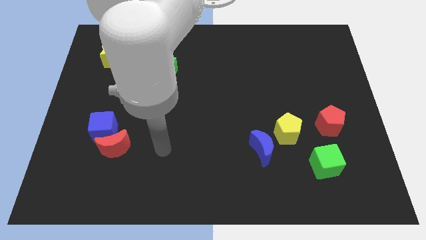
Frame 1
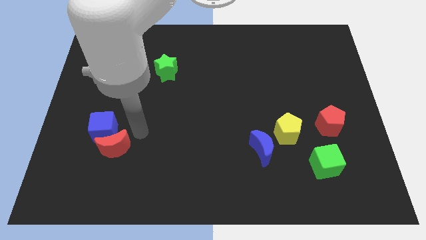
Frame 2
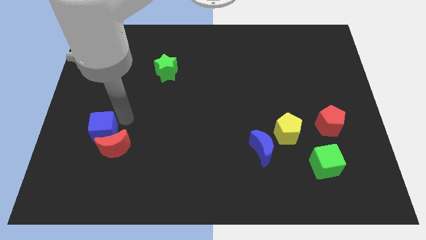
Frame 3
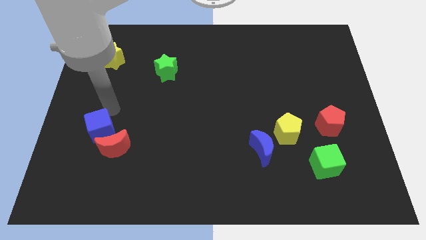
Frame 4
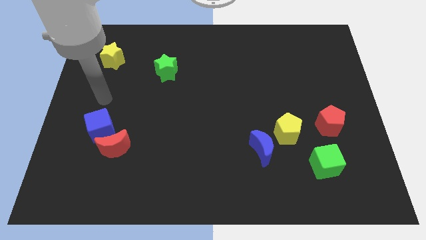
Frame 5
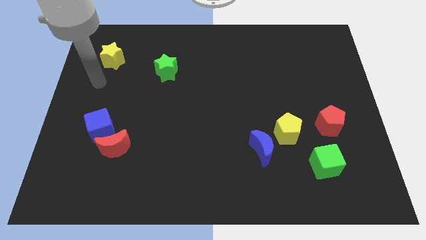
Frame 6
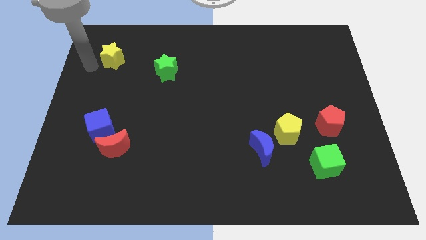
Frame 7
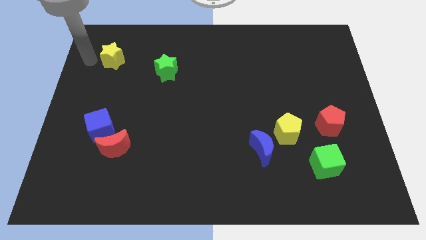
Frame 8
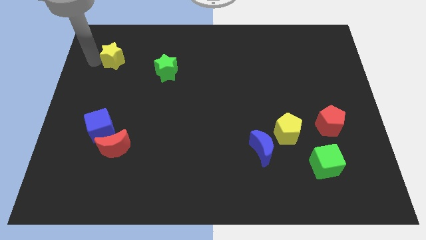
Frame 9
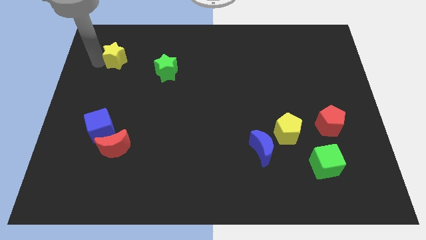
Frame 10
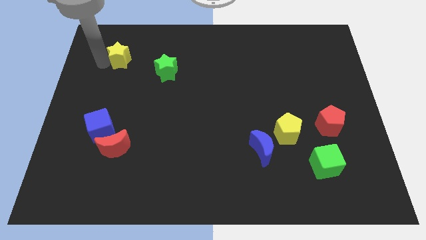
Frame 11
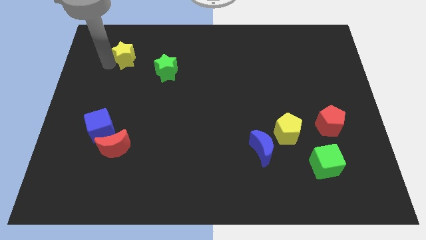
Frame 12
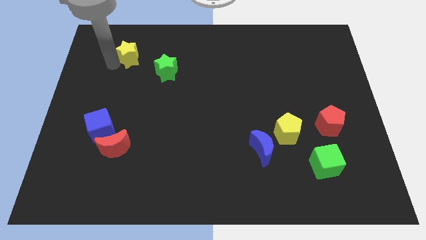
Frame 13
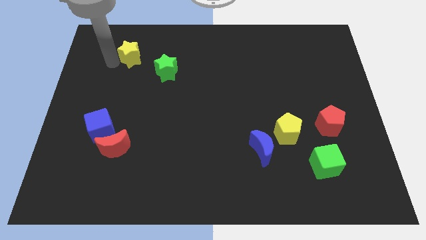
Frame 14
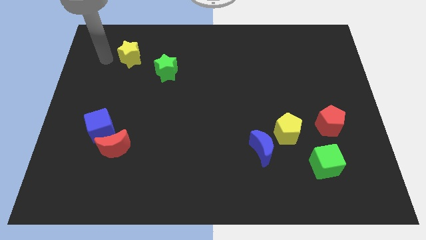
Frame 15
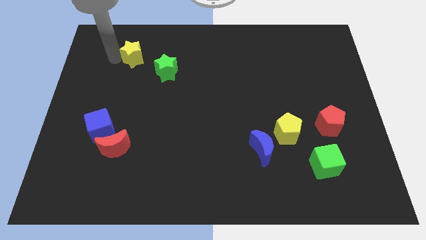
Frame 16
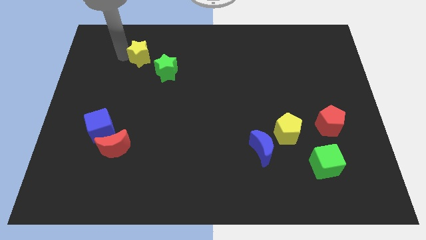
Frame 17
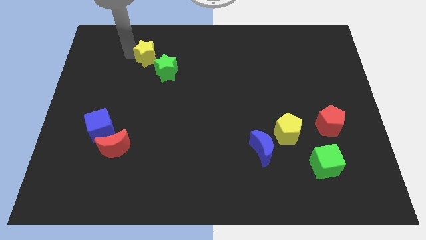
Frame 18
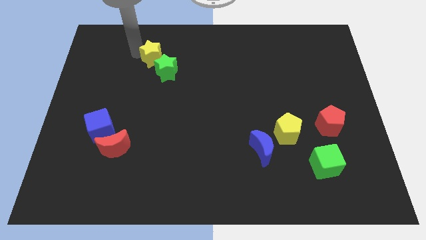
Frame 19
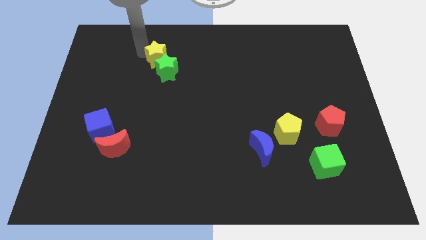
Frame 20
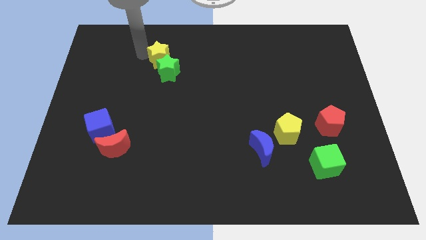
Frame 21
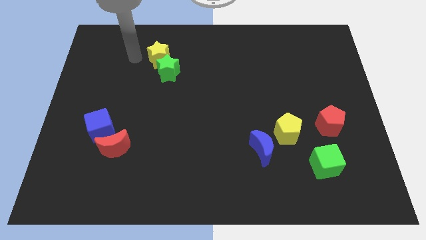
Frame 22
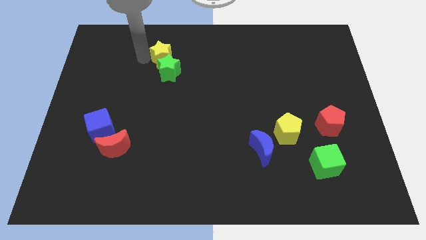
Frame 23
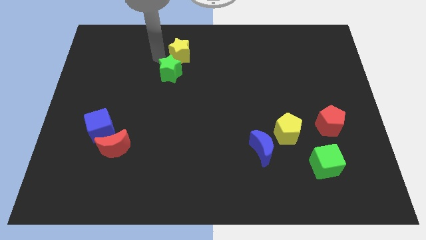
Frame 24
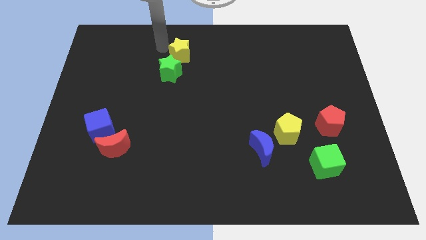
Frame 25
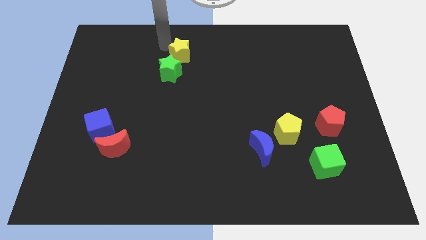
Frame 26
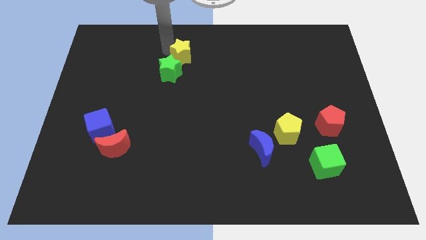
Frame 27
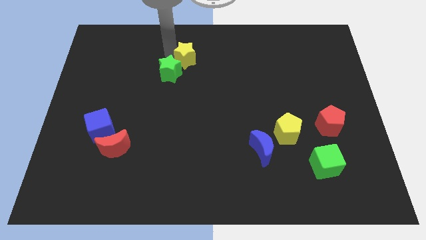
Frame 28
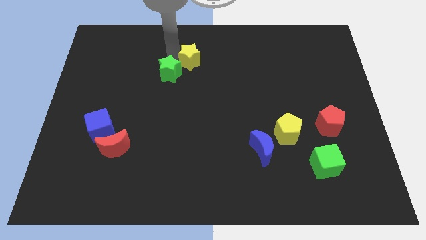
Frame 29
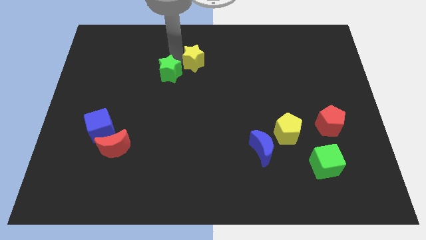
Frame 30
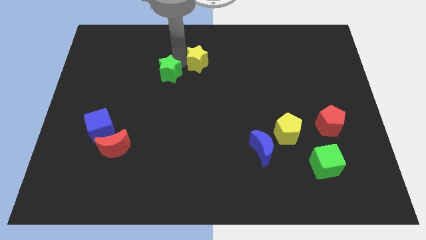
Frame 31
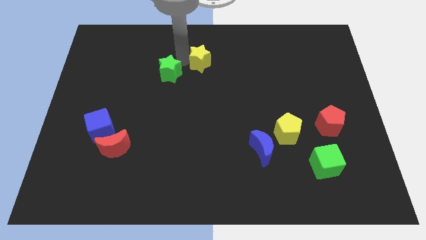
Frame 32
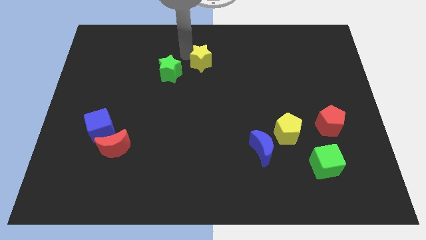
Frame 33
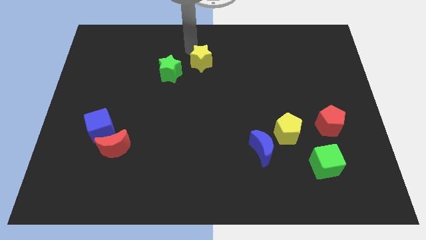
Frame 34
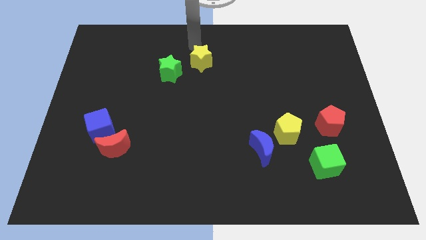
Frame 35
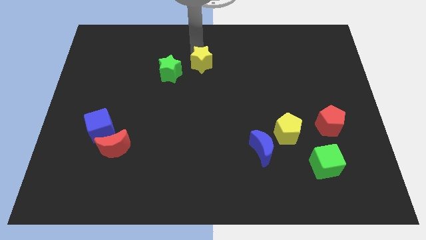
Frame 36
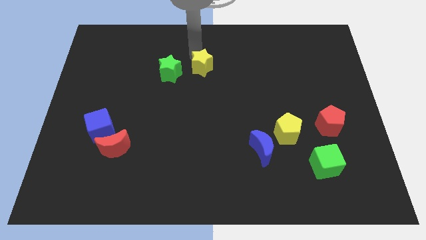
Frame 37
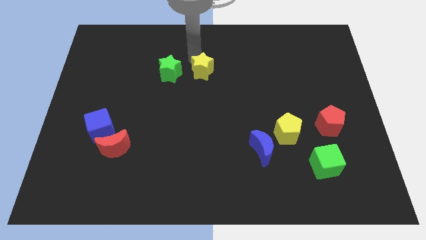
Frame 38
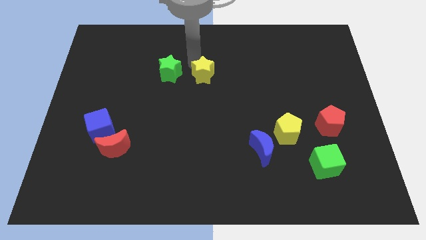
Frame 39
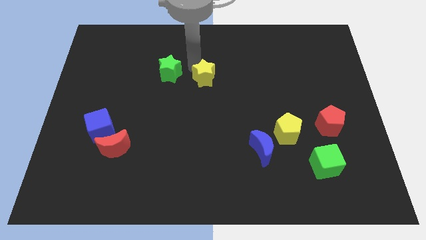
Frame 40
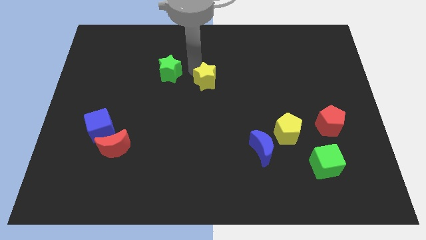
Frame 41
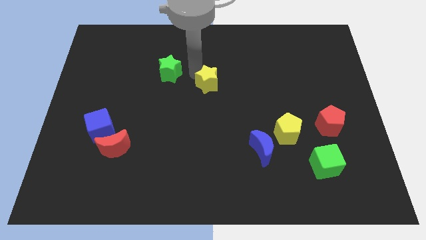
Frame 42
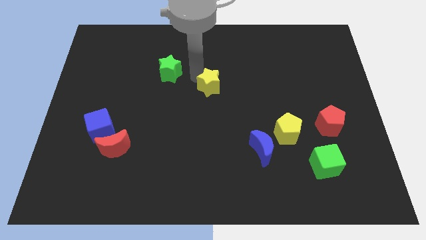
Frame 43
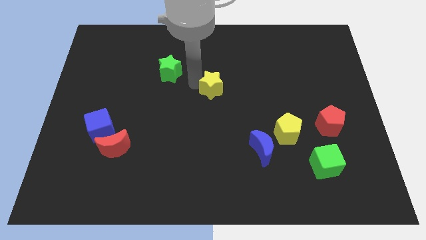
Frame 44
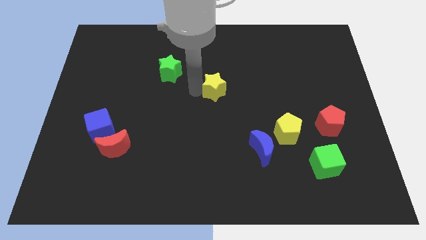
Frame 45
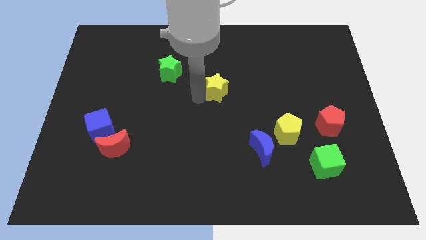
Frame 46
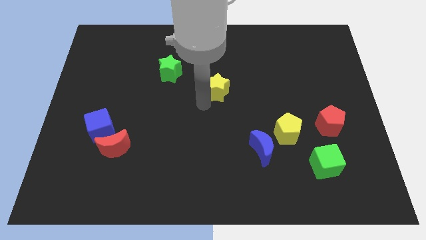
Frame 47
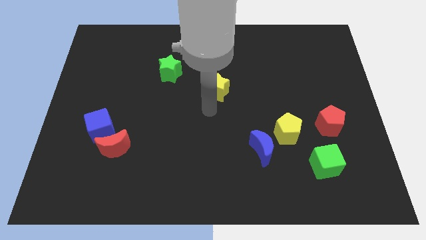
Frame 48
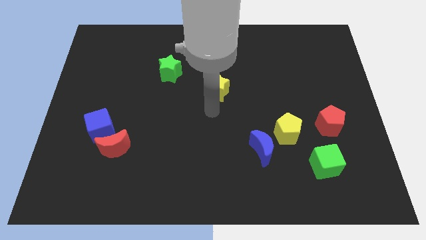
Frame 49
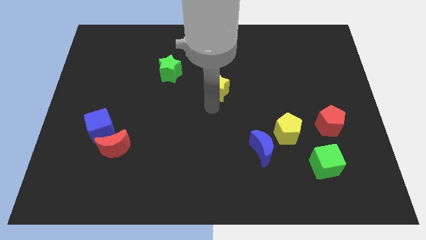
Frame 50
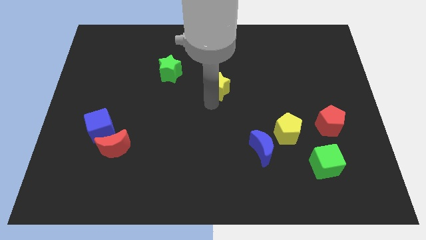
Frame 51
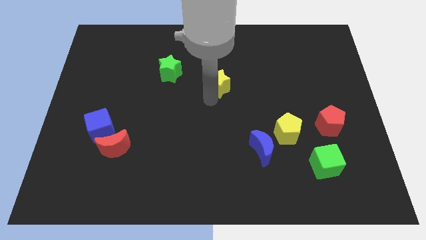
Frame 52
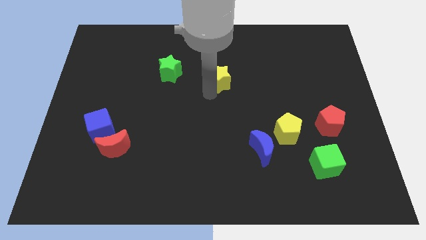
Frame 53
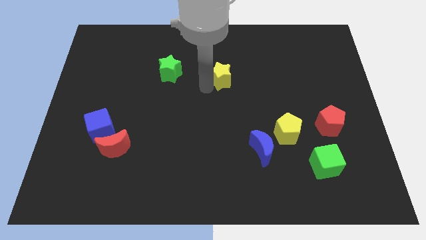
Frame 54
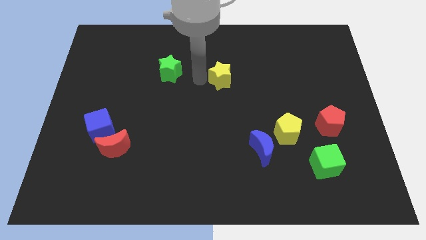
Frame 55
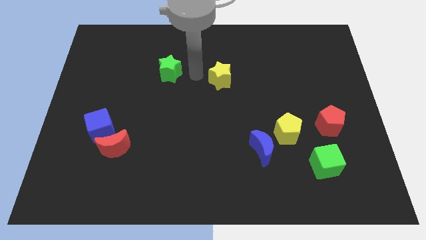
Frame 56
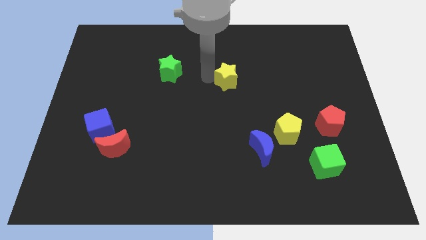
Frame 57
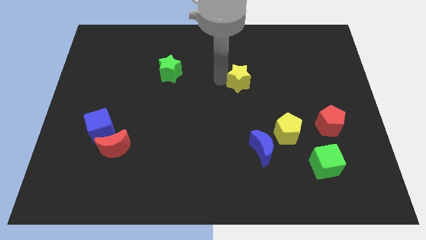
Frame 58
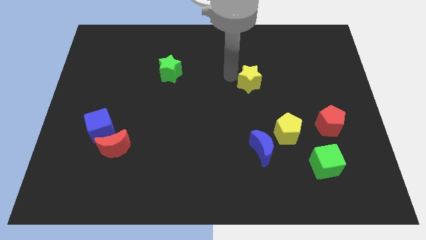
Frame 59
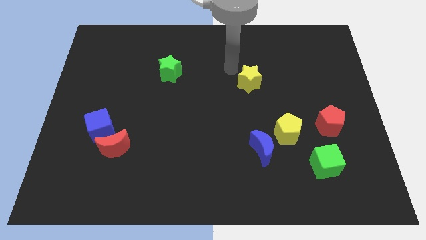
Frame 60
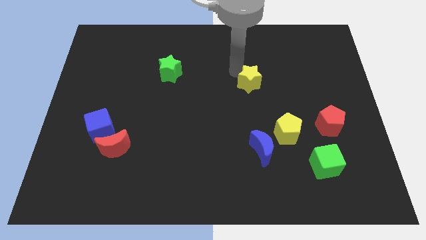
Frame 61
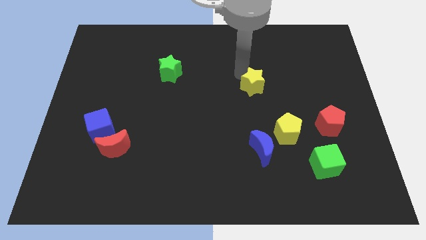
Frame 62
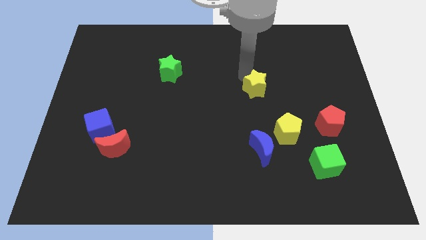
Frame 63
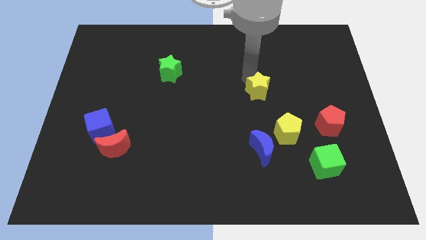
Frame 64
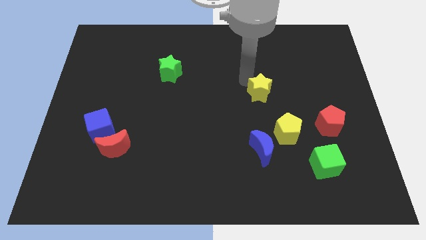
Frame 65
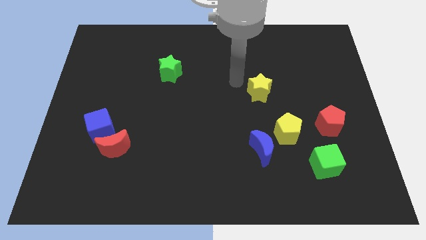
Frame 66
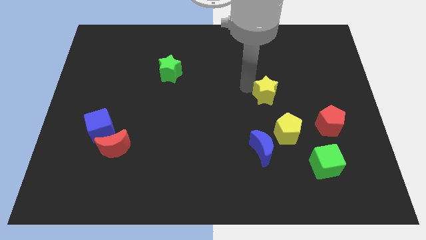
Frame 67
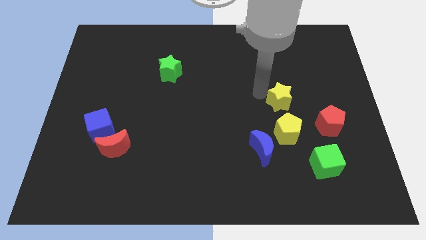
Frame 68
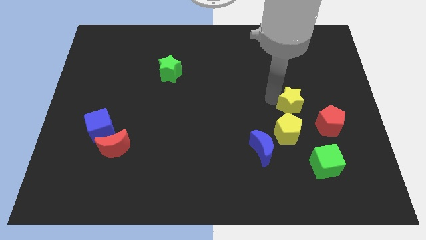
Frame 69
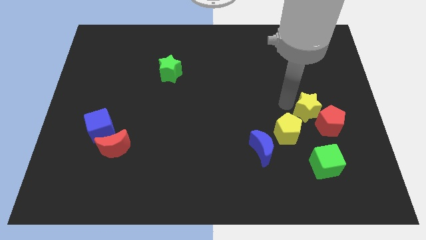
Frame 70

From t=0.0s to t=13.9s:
put the yellow star to the red pentagon
